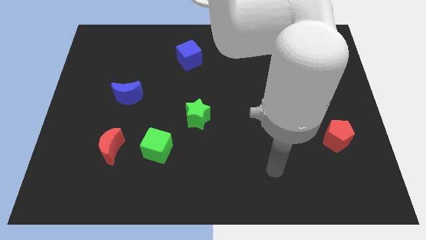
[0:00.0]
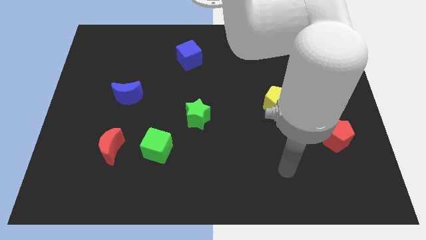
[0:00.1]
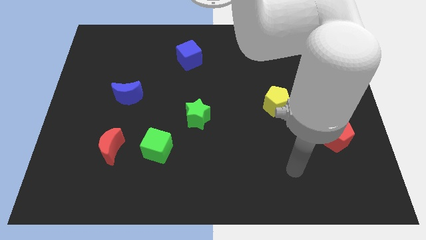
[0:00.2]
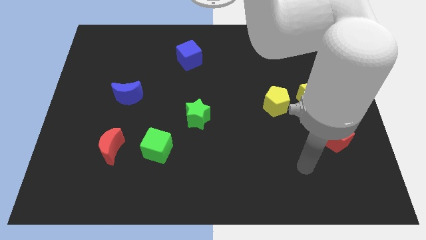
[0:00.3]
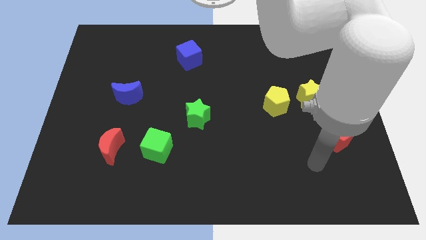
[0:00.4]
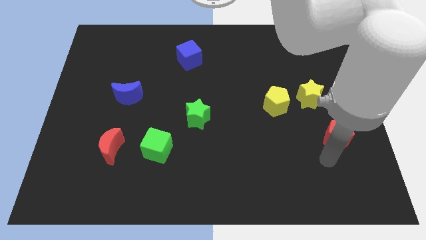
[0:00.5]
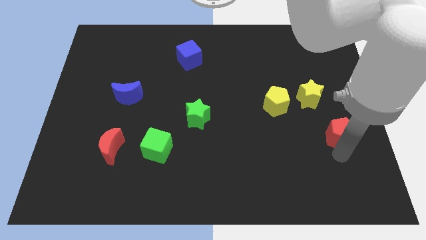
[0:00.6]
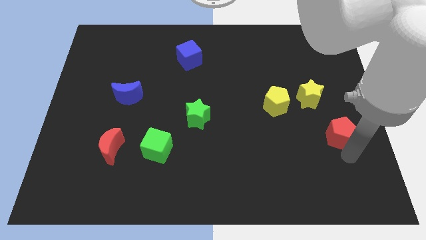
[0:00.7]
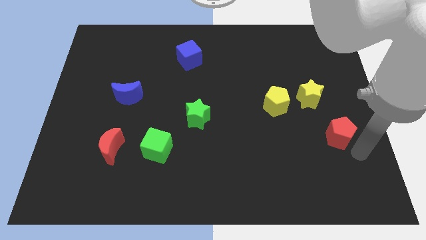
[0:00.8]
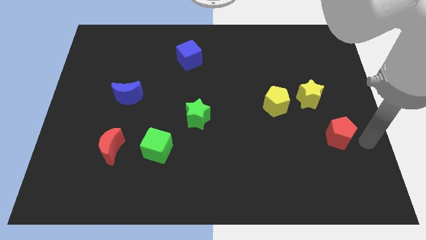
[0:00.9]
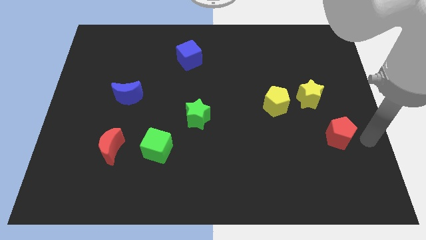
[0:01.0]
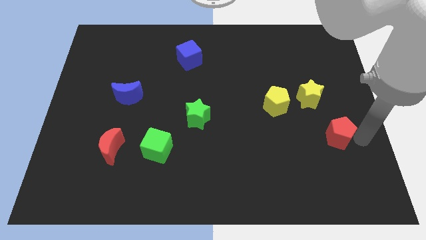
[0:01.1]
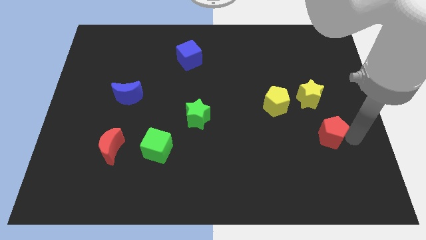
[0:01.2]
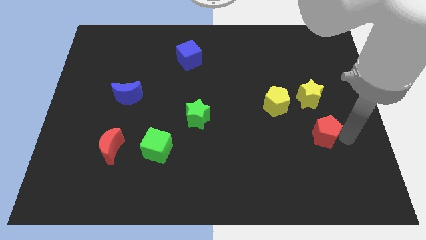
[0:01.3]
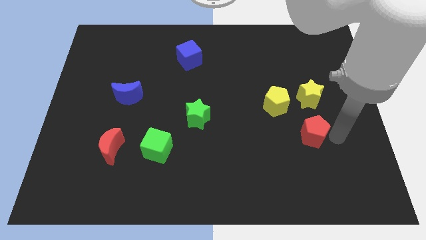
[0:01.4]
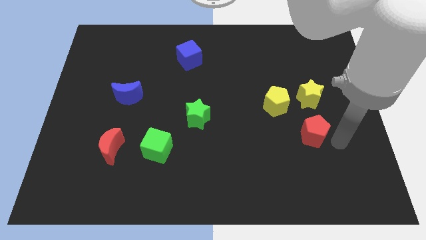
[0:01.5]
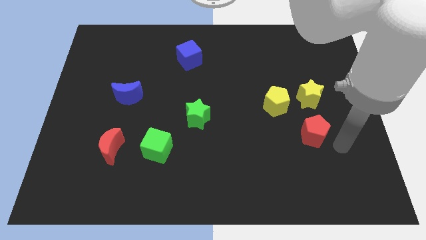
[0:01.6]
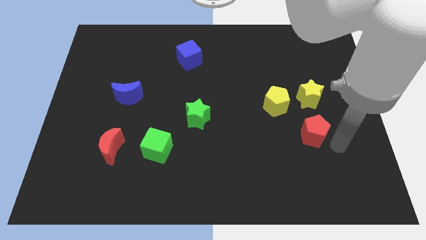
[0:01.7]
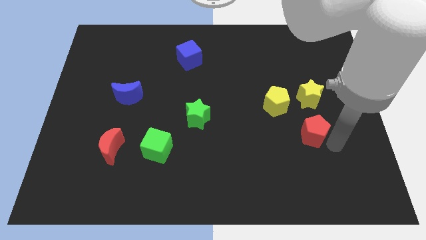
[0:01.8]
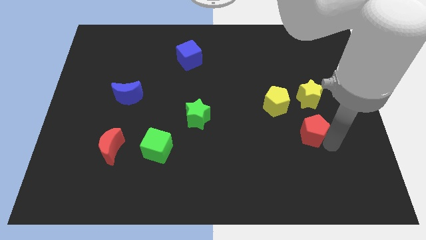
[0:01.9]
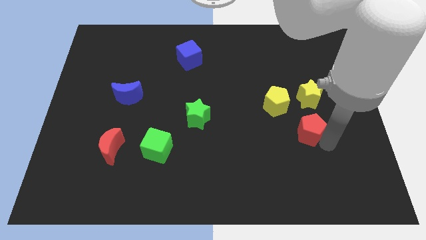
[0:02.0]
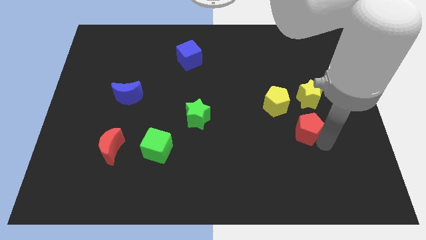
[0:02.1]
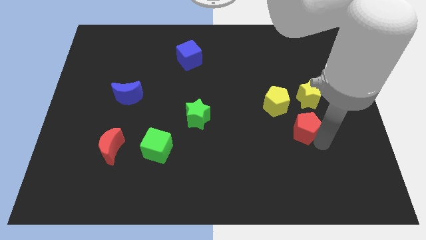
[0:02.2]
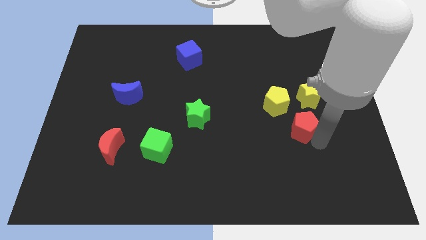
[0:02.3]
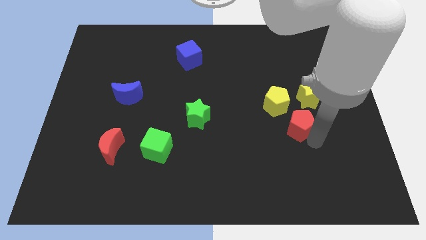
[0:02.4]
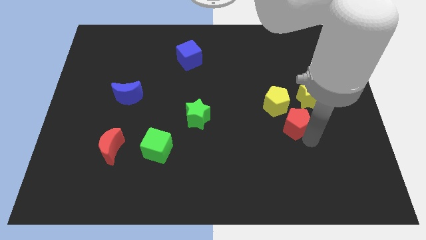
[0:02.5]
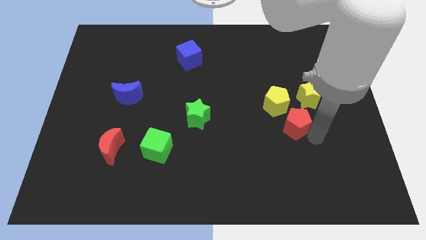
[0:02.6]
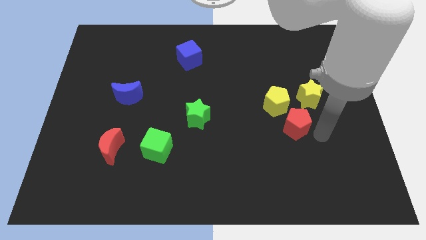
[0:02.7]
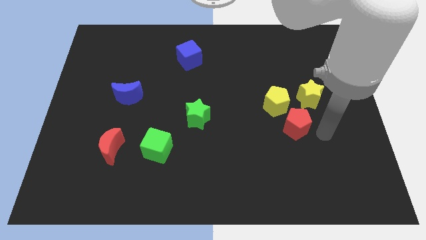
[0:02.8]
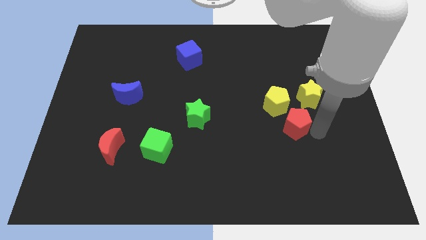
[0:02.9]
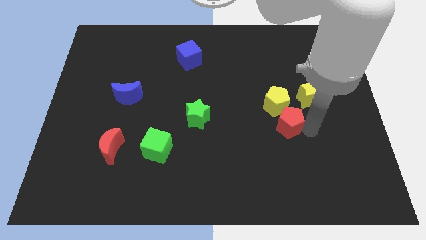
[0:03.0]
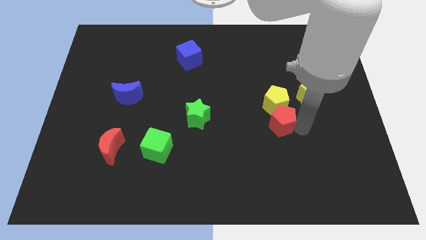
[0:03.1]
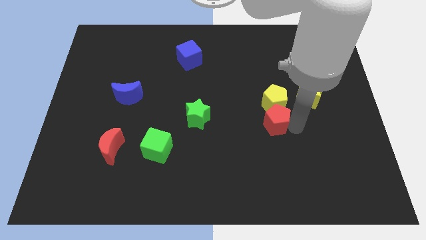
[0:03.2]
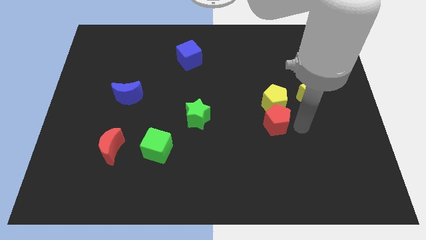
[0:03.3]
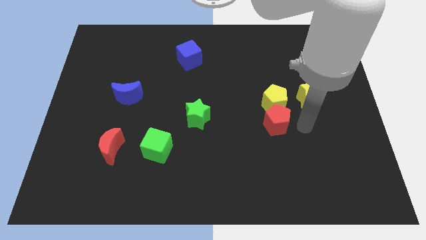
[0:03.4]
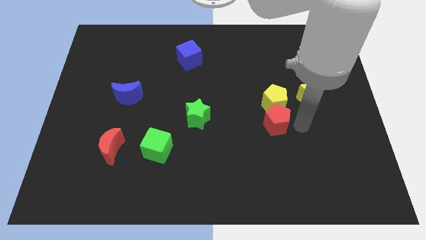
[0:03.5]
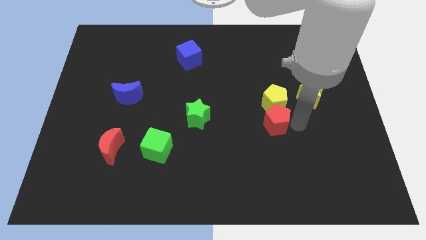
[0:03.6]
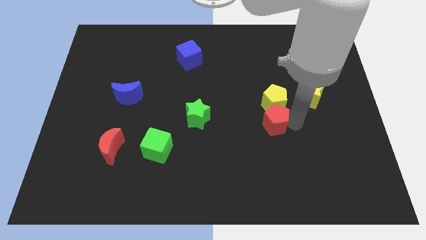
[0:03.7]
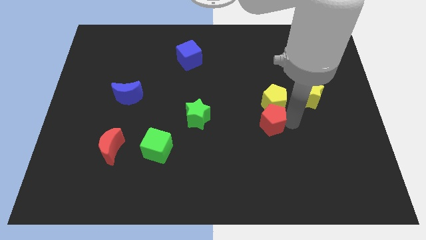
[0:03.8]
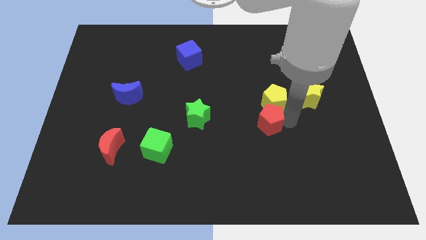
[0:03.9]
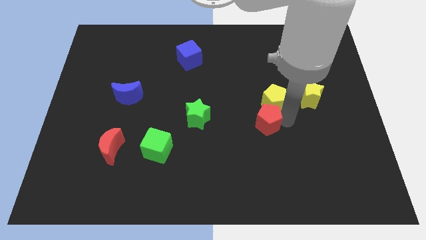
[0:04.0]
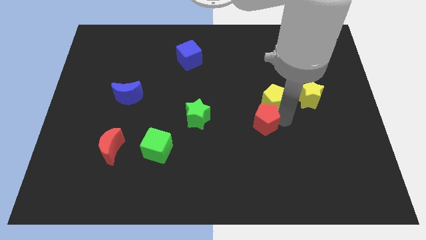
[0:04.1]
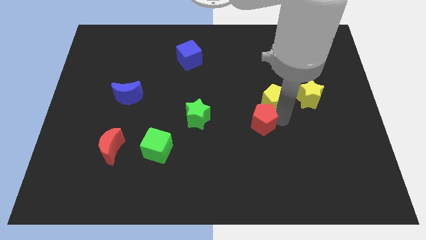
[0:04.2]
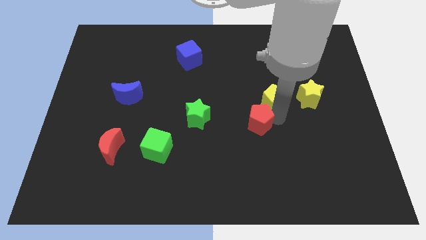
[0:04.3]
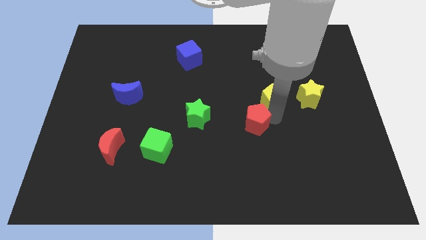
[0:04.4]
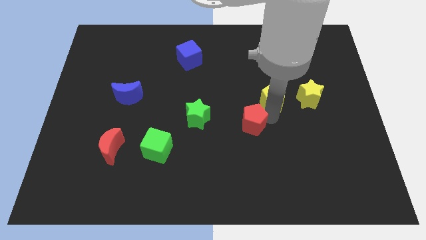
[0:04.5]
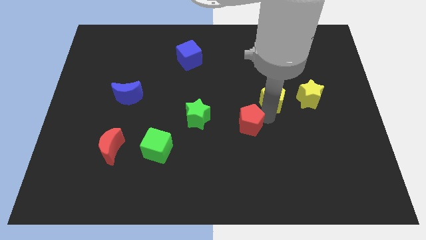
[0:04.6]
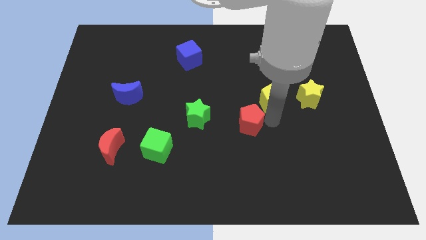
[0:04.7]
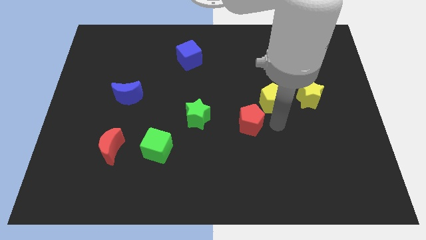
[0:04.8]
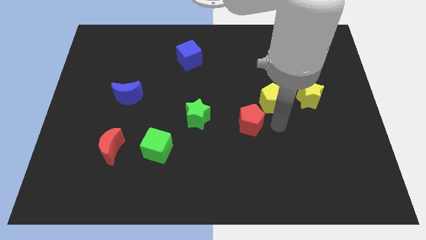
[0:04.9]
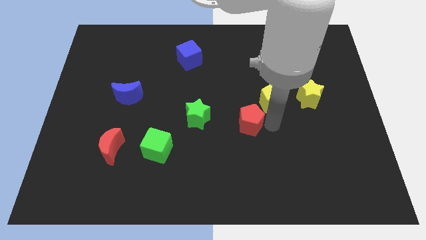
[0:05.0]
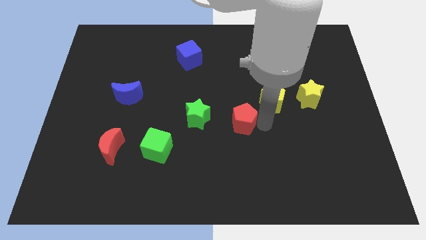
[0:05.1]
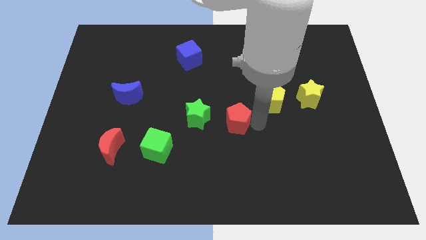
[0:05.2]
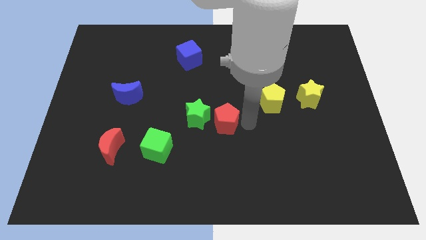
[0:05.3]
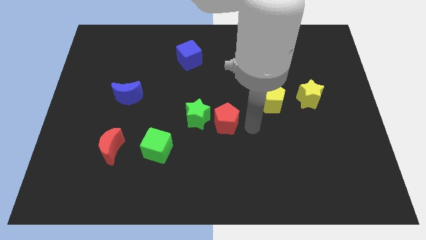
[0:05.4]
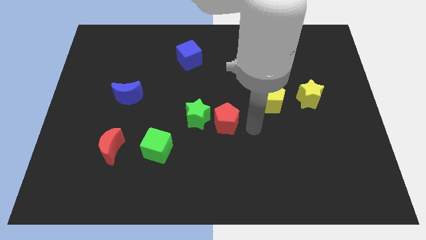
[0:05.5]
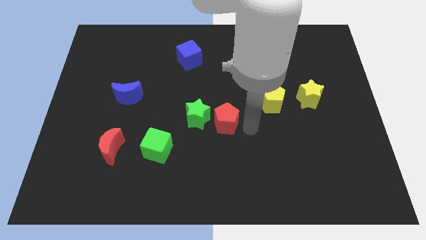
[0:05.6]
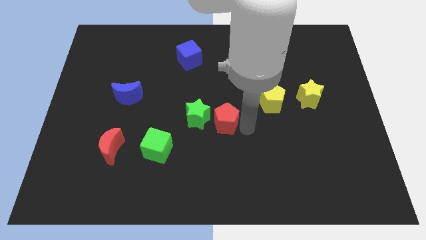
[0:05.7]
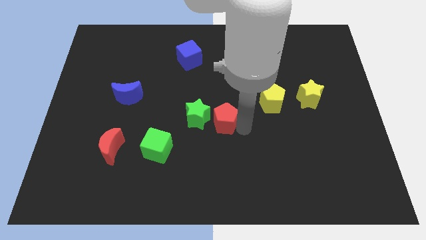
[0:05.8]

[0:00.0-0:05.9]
put the red pentagon close to the green star

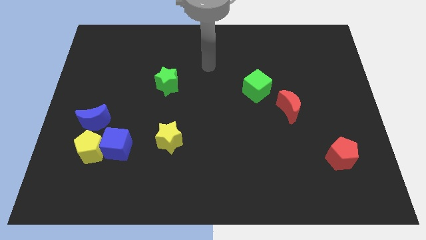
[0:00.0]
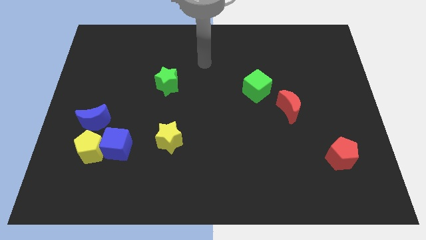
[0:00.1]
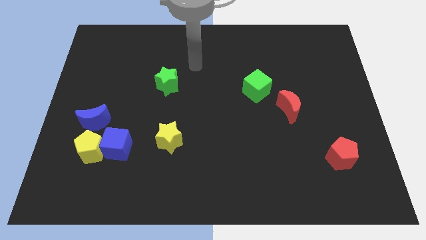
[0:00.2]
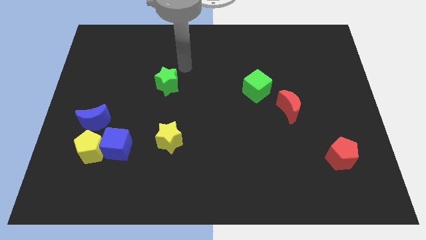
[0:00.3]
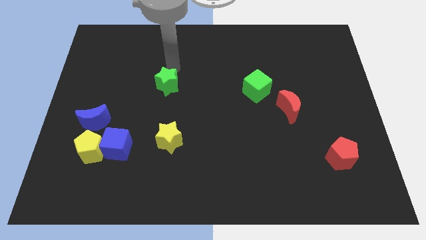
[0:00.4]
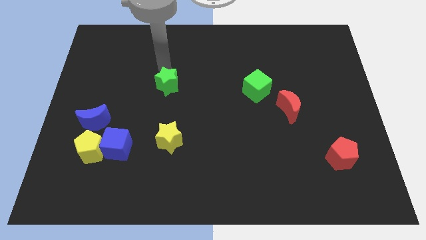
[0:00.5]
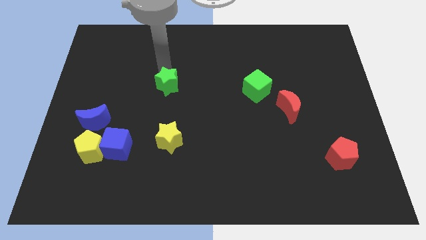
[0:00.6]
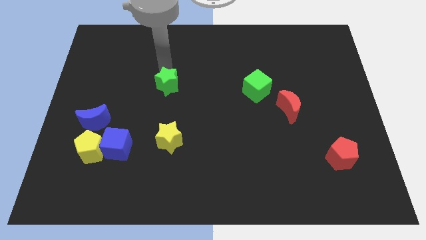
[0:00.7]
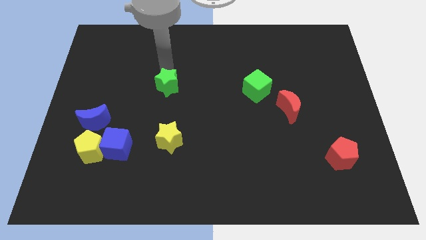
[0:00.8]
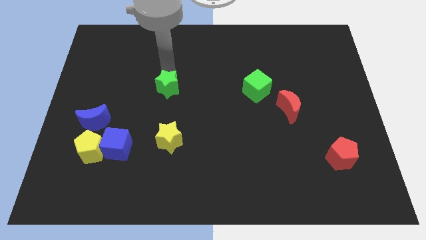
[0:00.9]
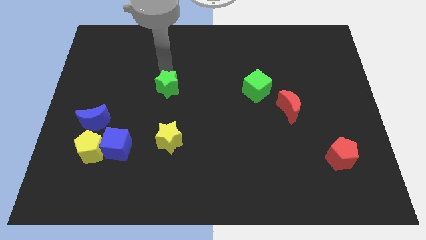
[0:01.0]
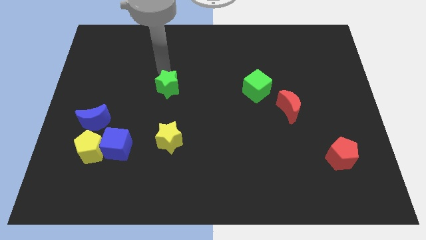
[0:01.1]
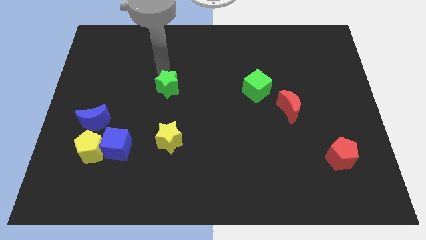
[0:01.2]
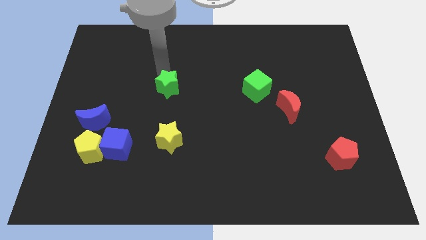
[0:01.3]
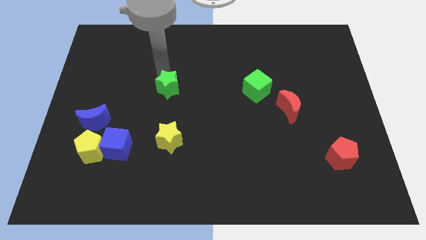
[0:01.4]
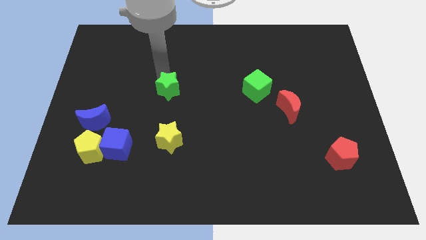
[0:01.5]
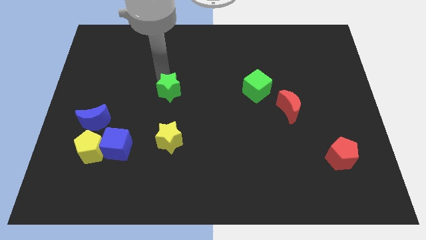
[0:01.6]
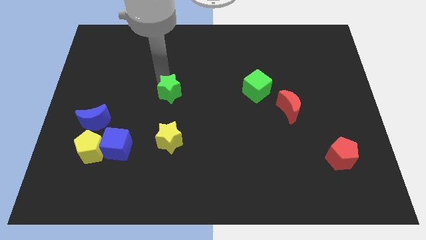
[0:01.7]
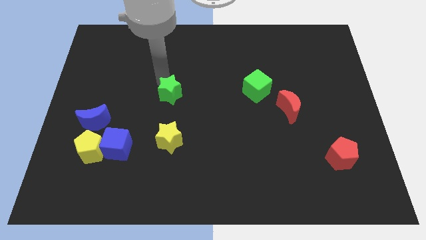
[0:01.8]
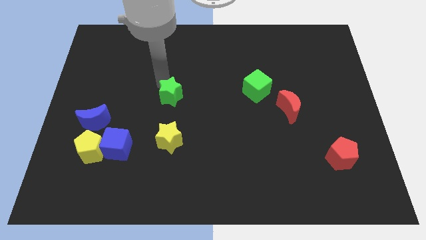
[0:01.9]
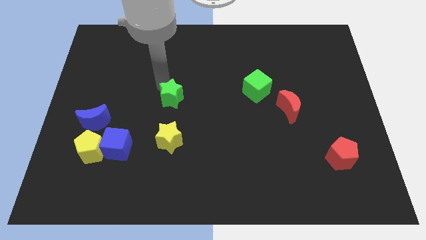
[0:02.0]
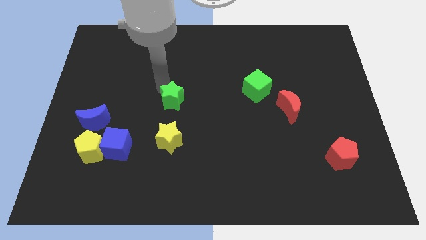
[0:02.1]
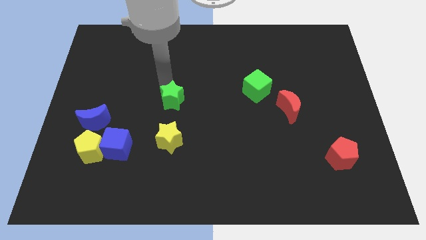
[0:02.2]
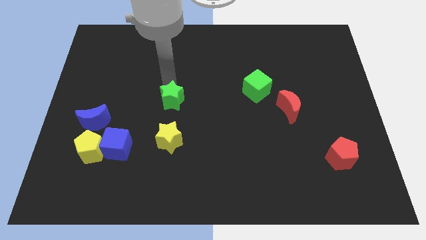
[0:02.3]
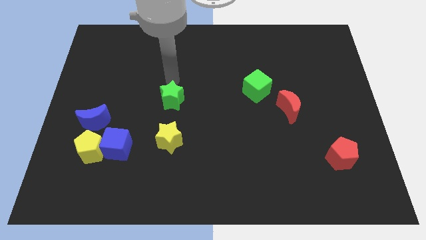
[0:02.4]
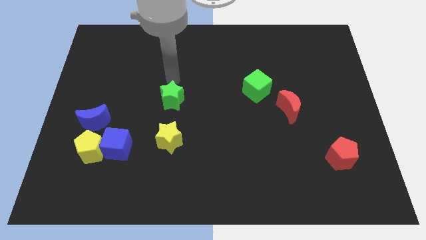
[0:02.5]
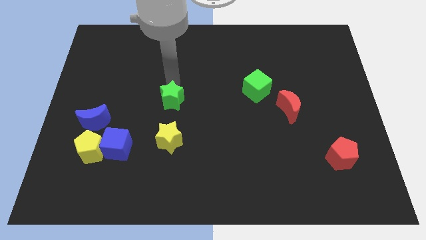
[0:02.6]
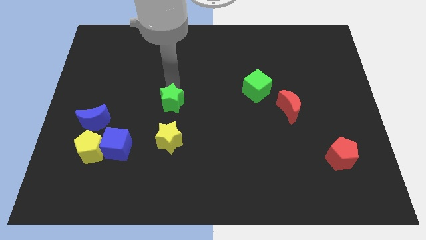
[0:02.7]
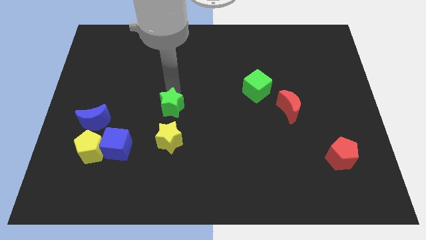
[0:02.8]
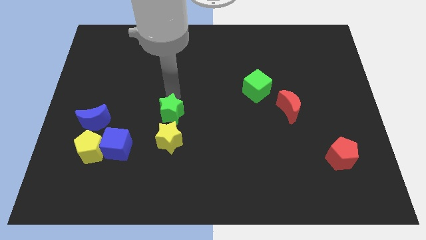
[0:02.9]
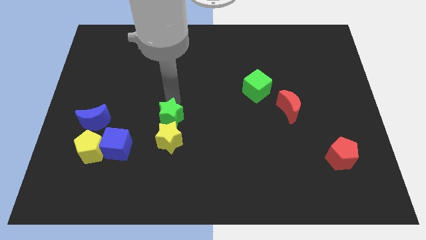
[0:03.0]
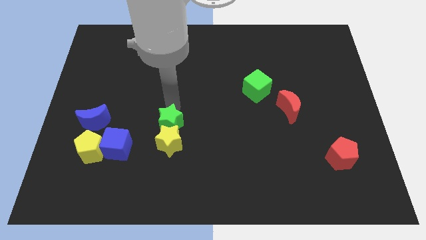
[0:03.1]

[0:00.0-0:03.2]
push the green star towards the yellow star
